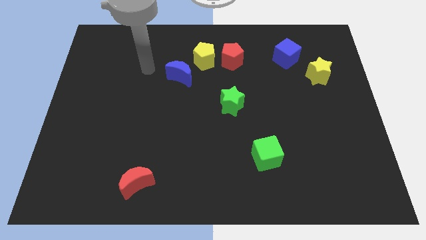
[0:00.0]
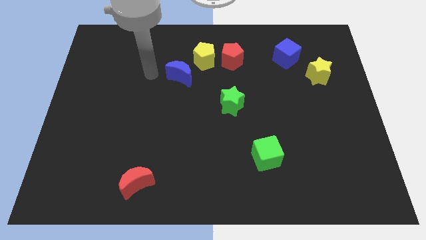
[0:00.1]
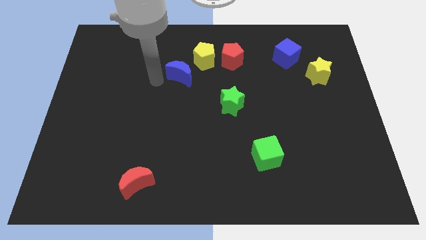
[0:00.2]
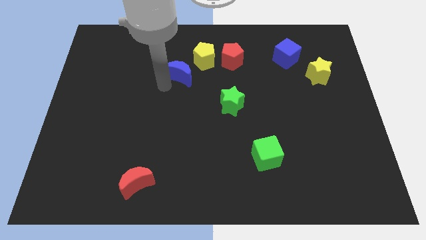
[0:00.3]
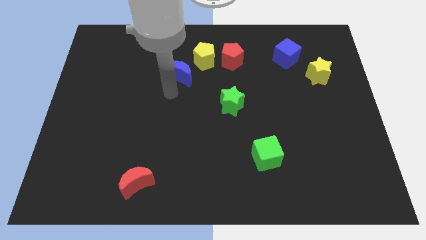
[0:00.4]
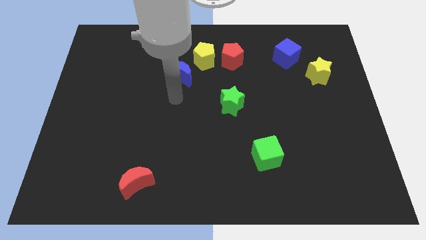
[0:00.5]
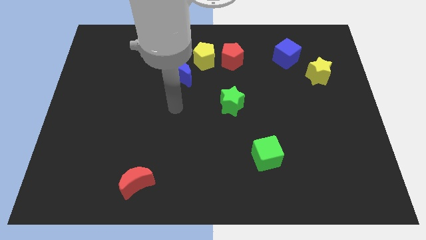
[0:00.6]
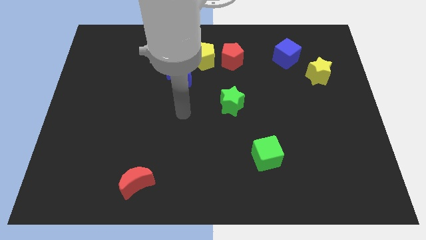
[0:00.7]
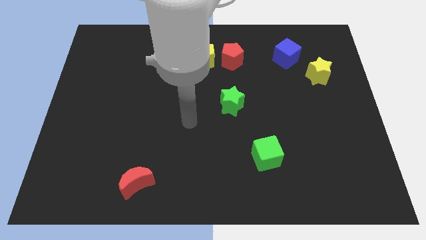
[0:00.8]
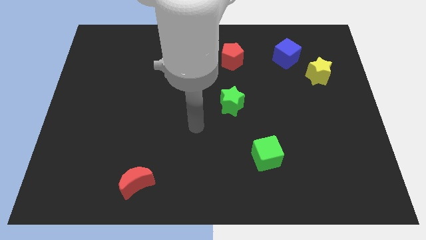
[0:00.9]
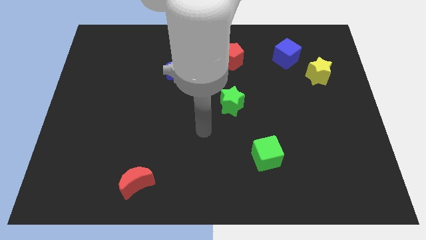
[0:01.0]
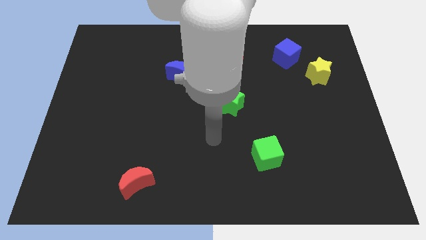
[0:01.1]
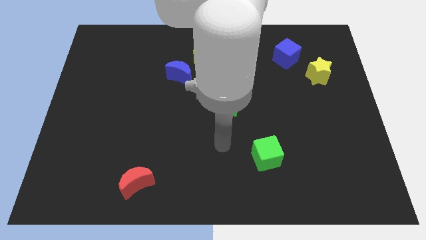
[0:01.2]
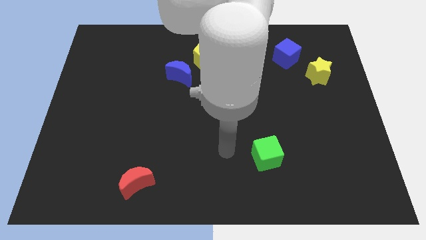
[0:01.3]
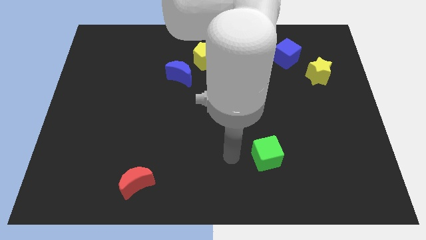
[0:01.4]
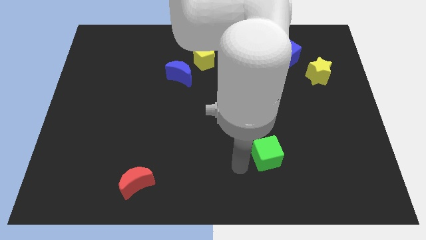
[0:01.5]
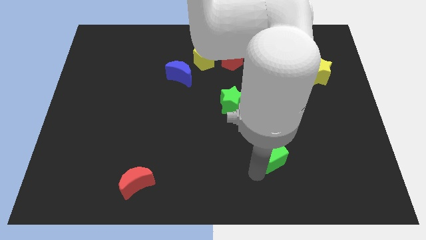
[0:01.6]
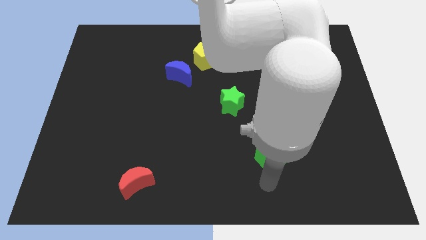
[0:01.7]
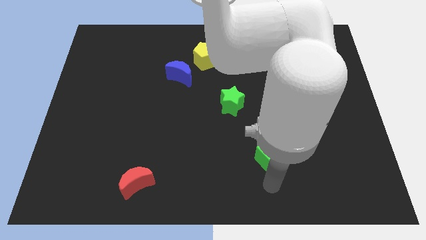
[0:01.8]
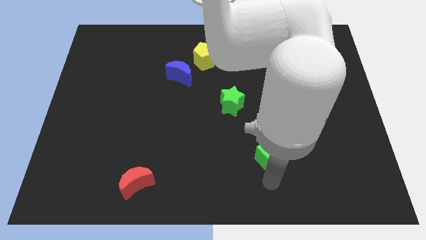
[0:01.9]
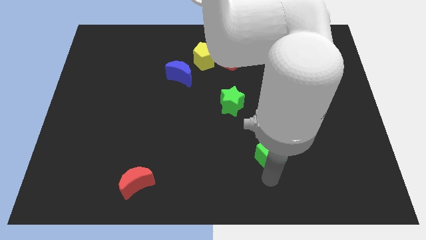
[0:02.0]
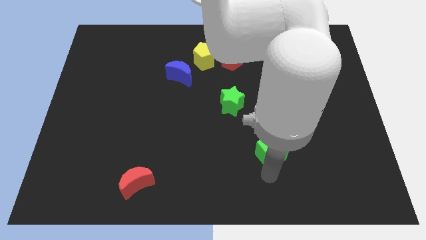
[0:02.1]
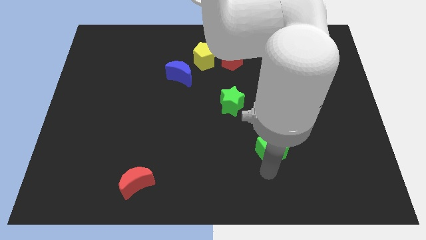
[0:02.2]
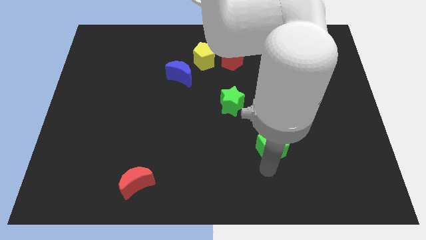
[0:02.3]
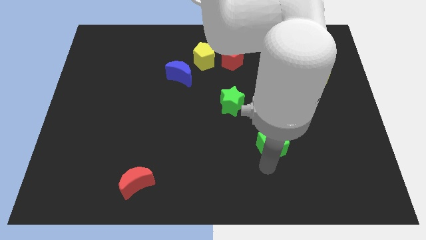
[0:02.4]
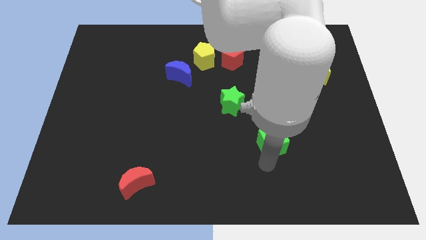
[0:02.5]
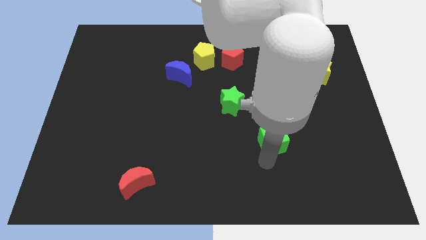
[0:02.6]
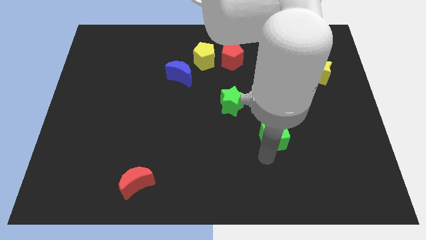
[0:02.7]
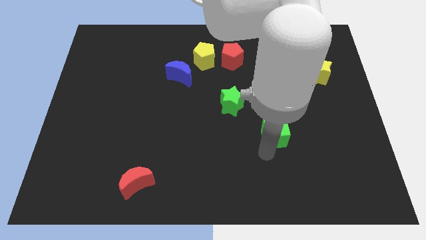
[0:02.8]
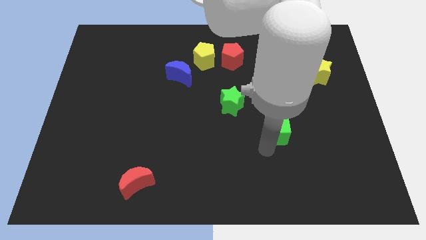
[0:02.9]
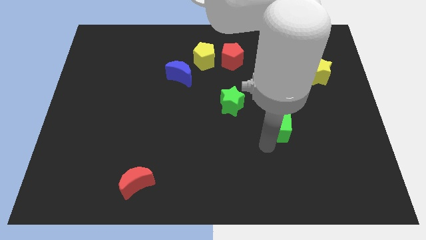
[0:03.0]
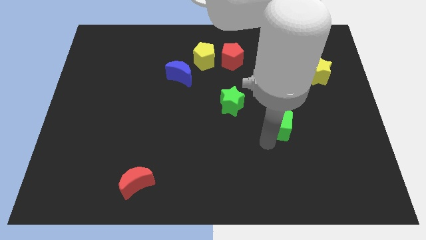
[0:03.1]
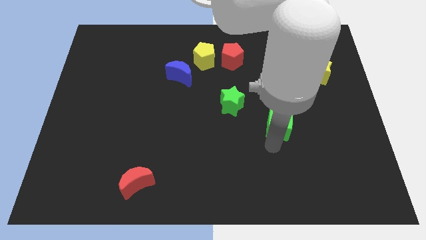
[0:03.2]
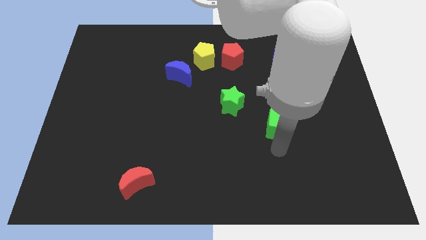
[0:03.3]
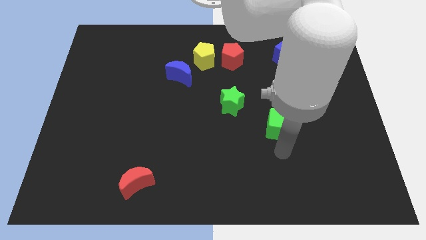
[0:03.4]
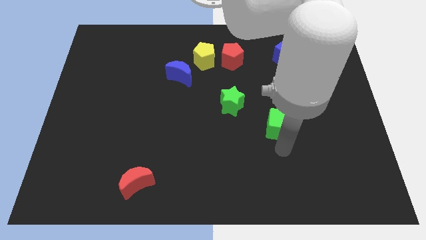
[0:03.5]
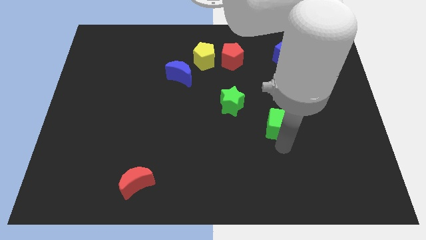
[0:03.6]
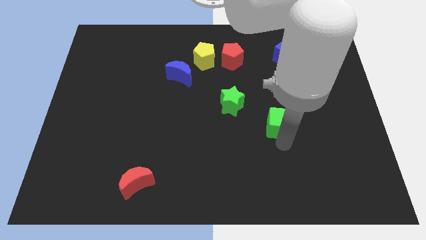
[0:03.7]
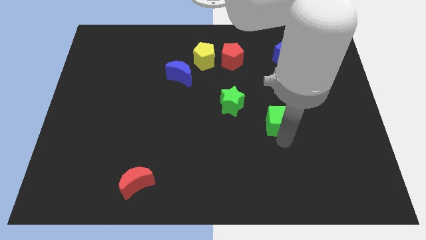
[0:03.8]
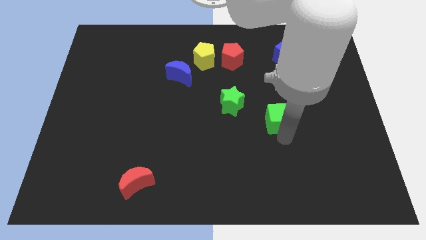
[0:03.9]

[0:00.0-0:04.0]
slide the green cube right of the green star

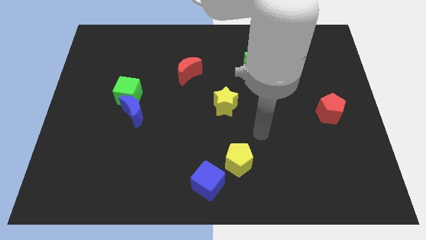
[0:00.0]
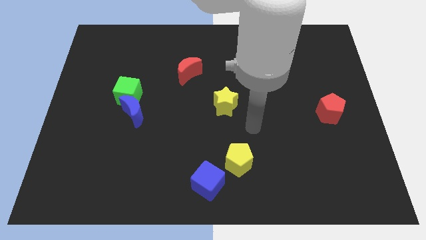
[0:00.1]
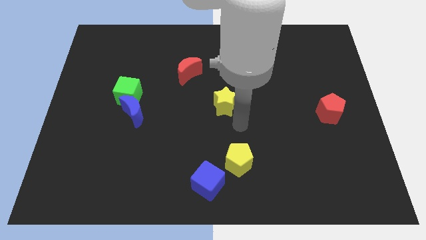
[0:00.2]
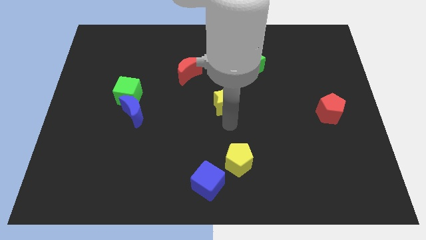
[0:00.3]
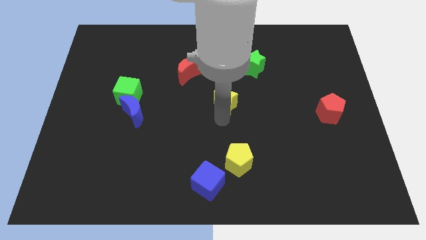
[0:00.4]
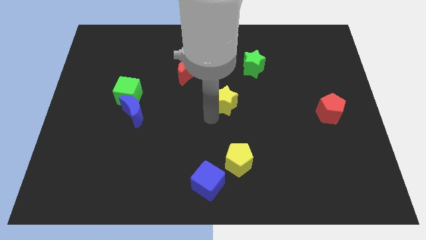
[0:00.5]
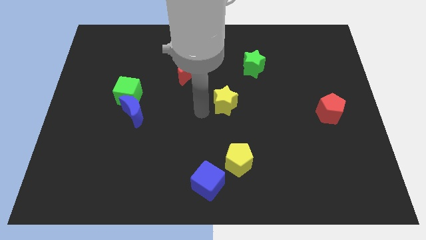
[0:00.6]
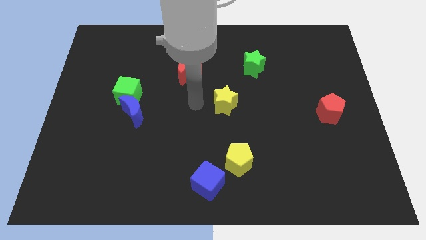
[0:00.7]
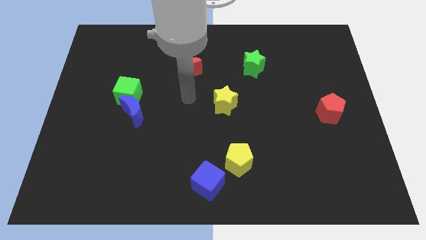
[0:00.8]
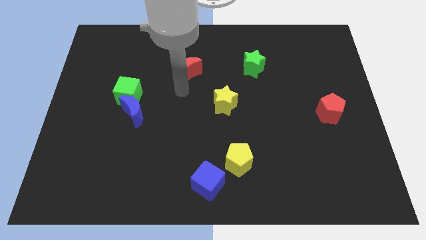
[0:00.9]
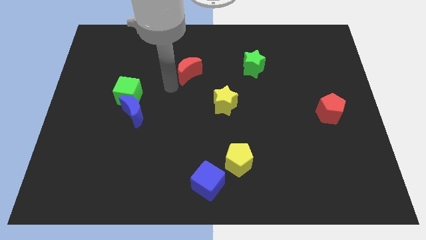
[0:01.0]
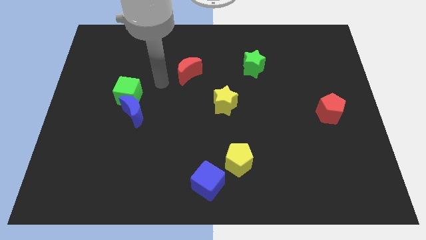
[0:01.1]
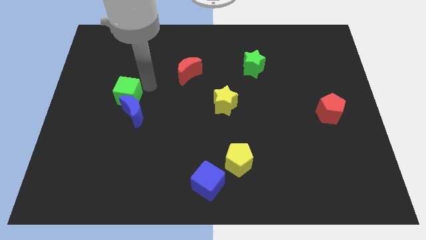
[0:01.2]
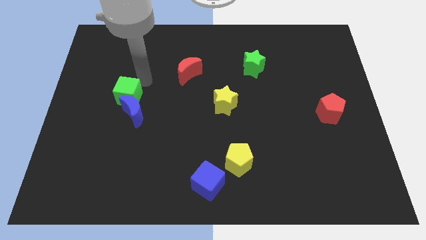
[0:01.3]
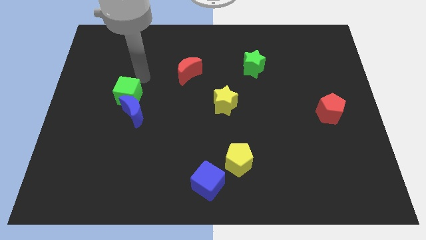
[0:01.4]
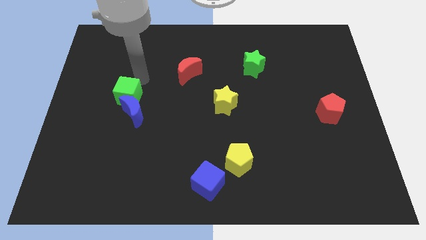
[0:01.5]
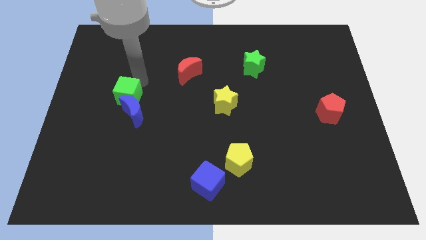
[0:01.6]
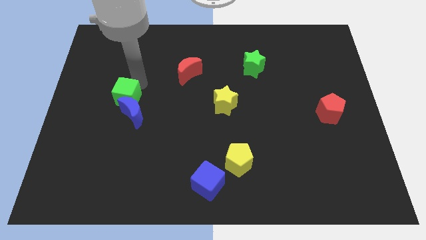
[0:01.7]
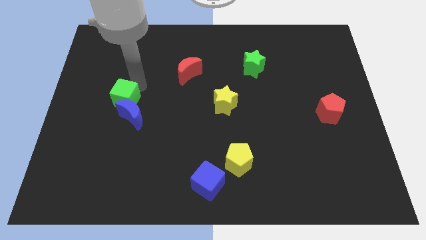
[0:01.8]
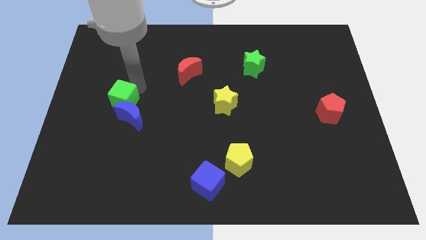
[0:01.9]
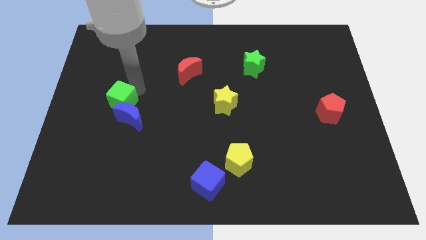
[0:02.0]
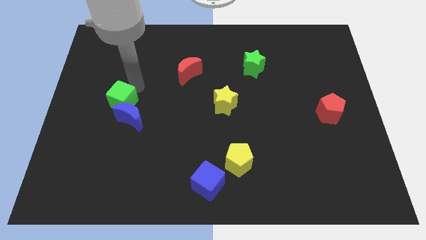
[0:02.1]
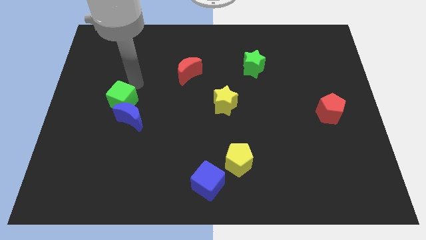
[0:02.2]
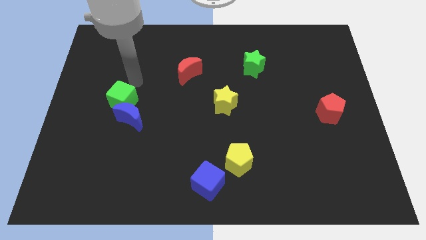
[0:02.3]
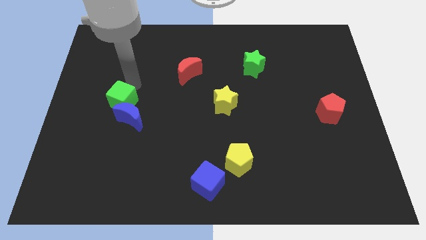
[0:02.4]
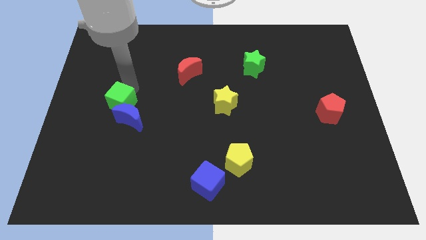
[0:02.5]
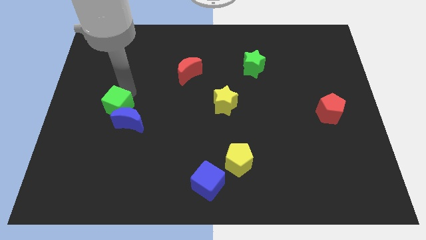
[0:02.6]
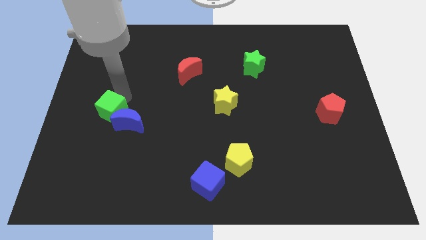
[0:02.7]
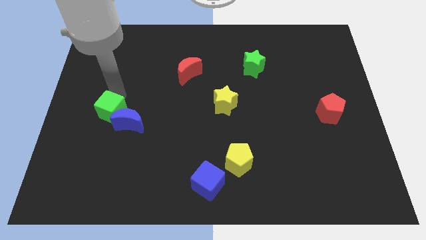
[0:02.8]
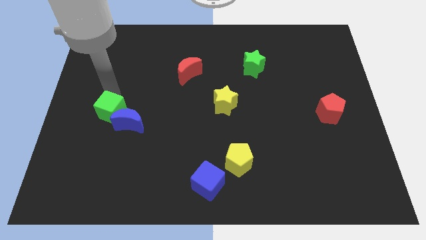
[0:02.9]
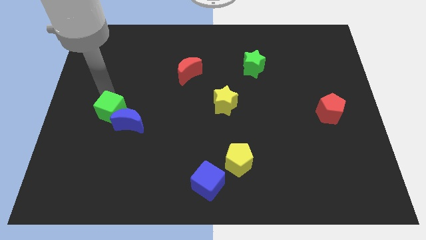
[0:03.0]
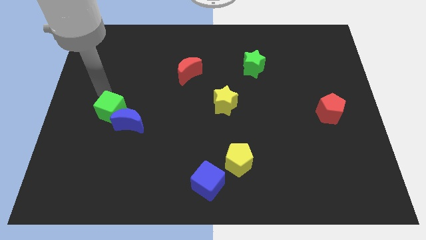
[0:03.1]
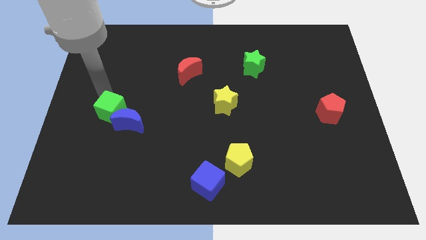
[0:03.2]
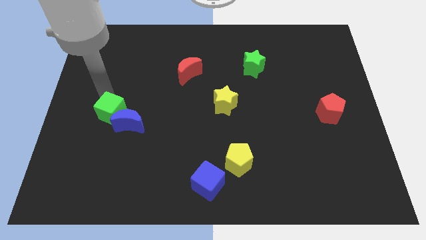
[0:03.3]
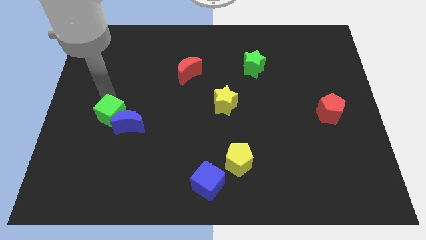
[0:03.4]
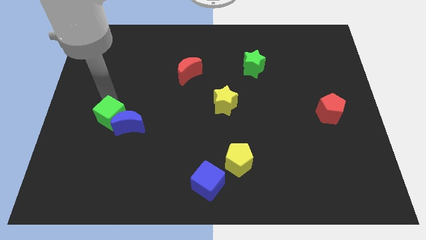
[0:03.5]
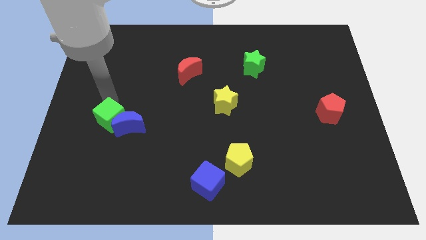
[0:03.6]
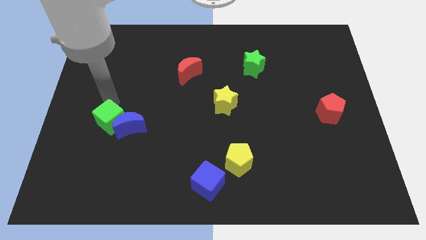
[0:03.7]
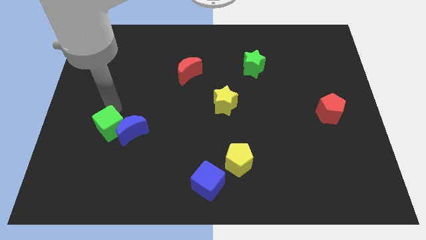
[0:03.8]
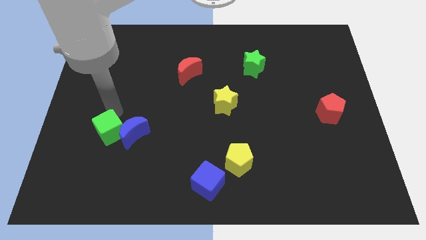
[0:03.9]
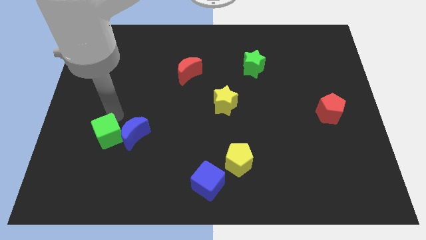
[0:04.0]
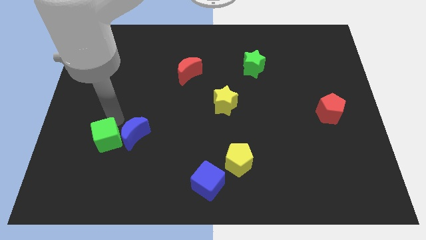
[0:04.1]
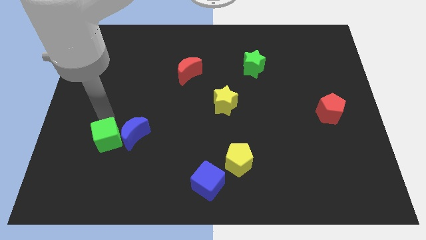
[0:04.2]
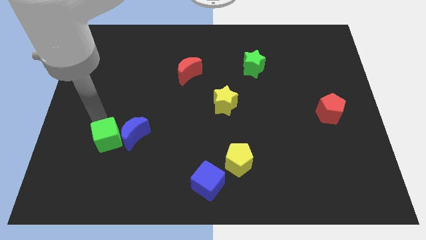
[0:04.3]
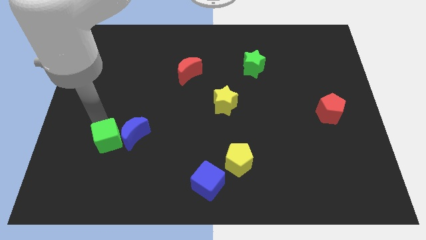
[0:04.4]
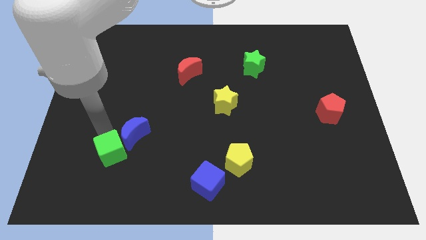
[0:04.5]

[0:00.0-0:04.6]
push the green cube to the bottom side of the blue moon
